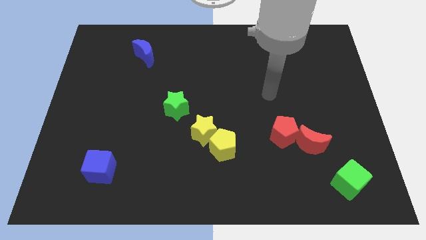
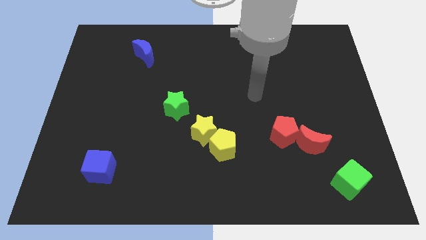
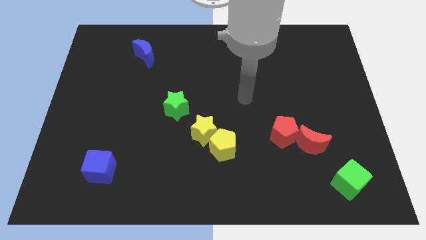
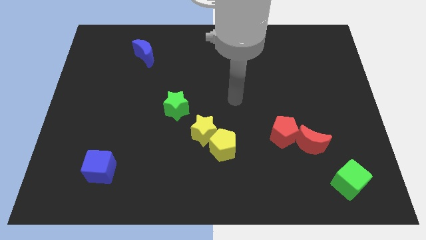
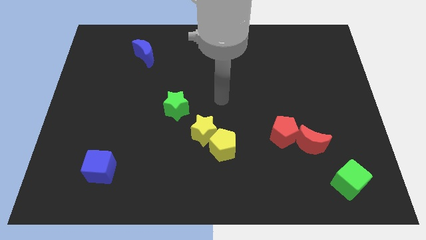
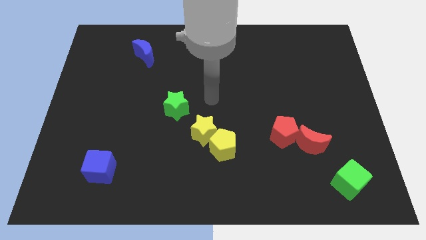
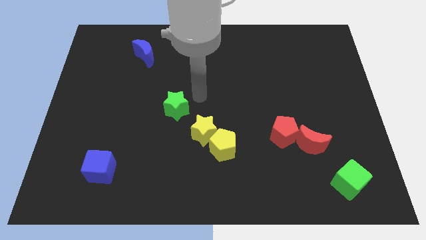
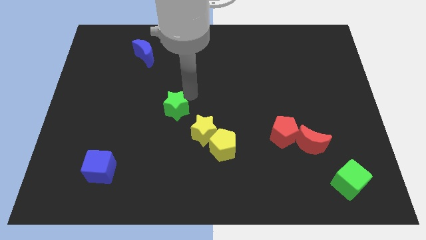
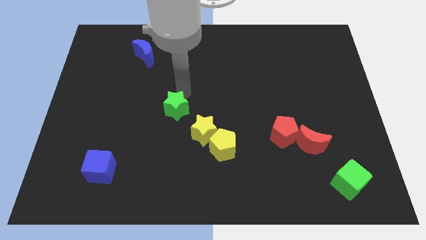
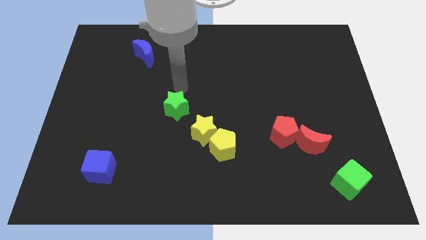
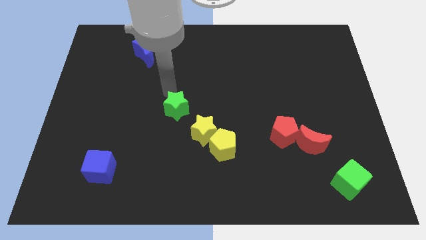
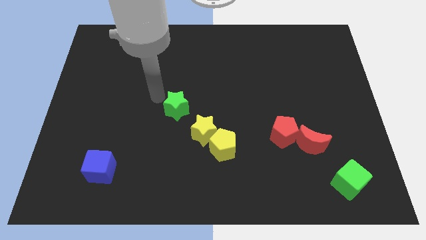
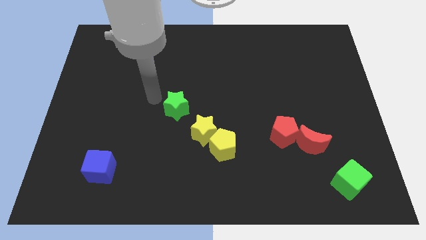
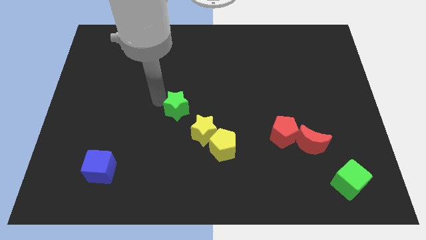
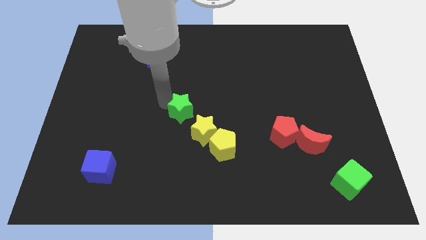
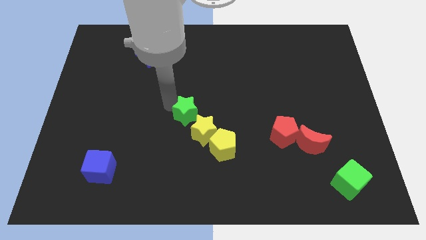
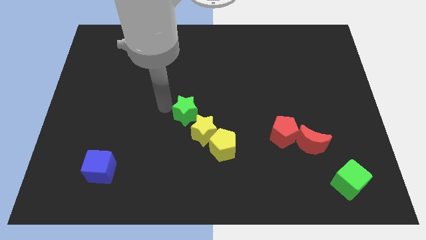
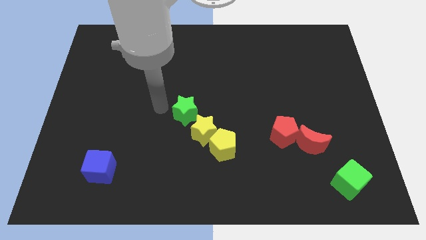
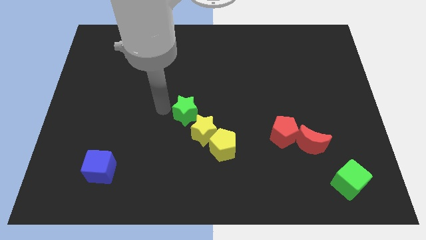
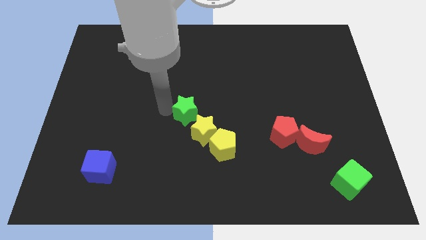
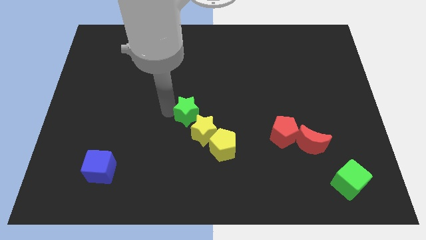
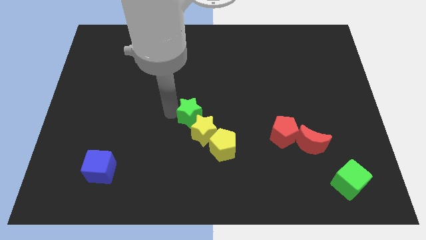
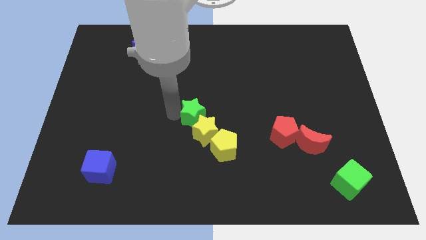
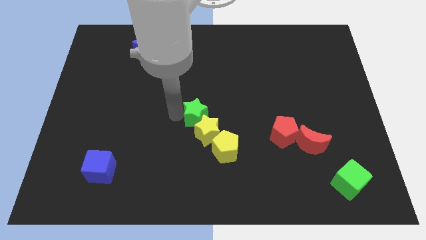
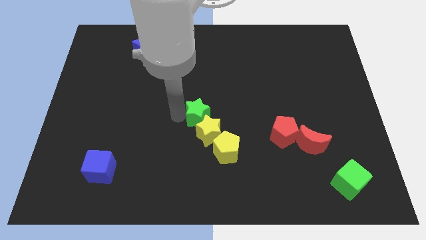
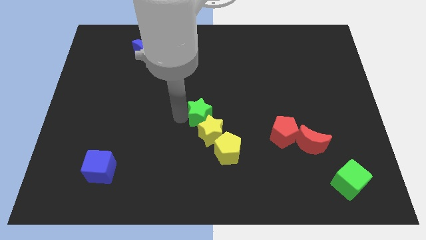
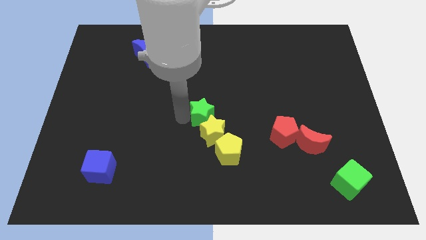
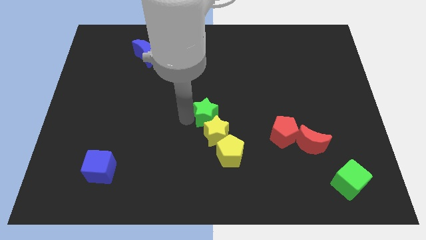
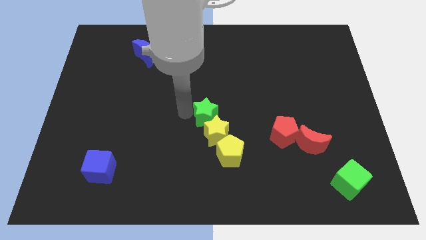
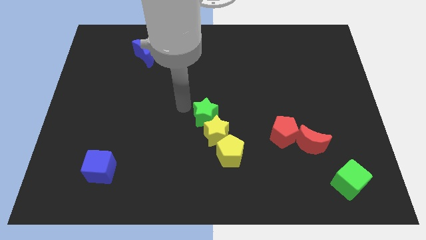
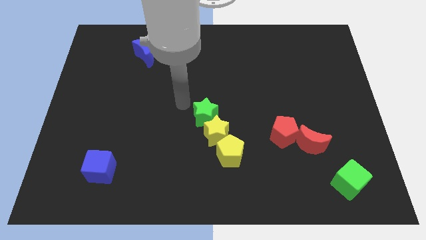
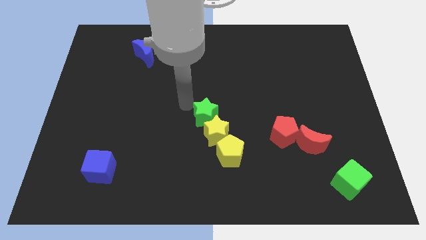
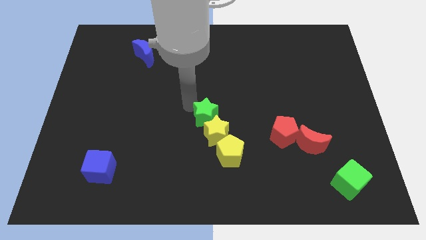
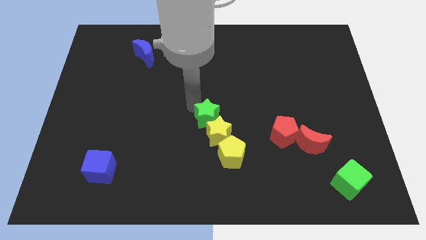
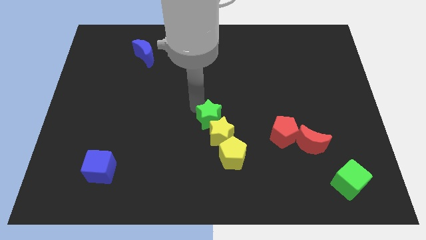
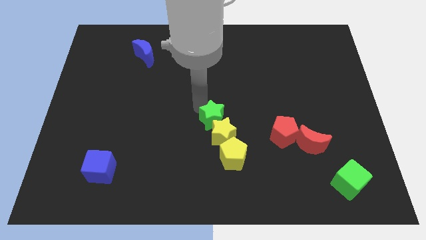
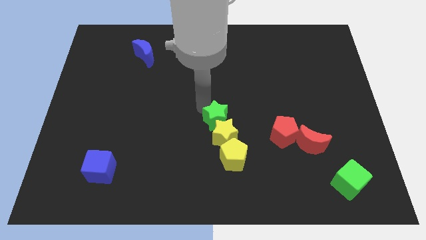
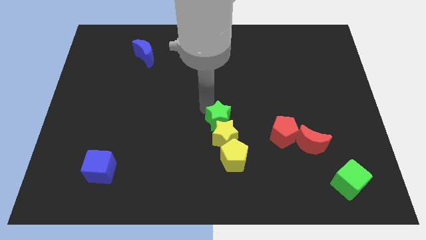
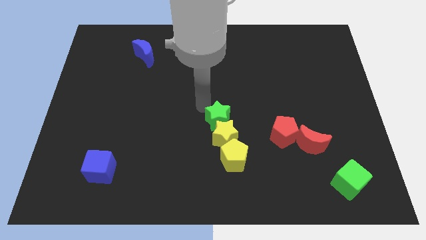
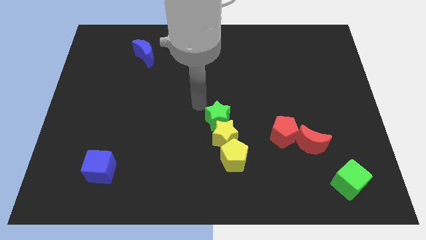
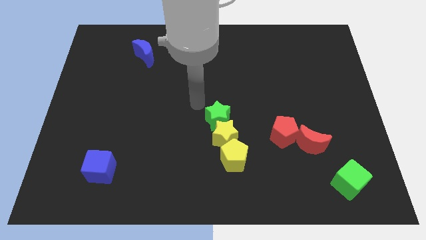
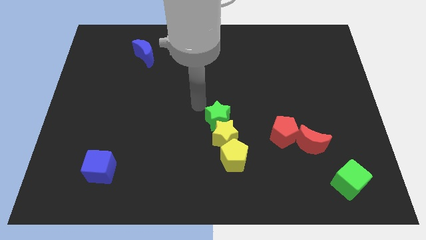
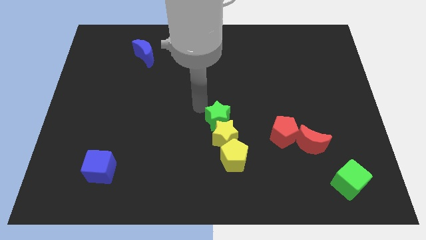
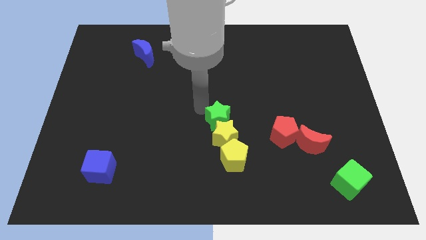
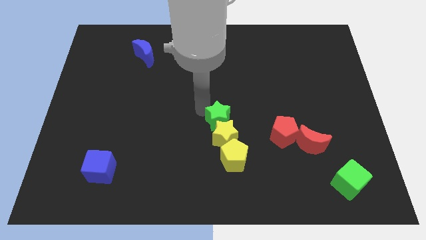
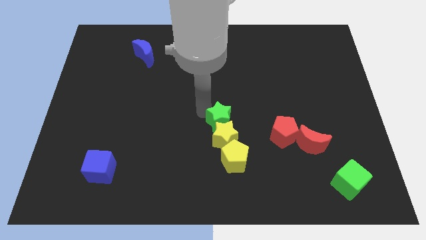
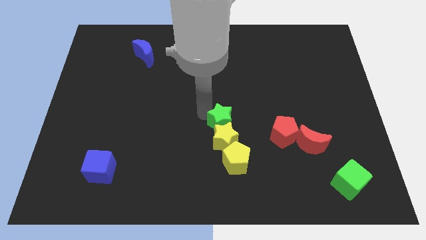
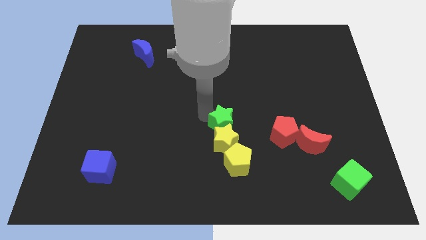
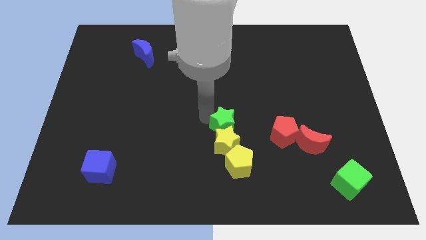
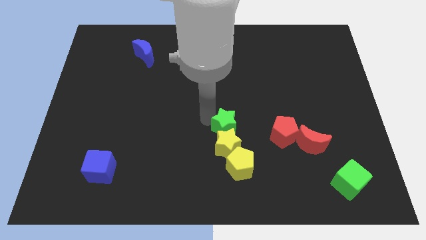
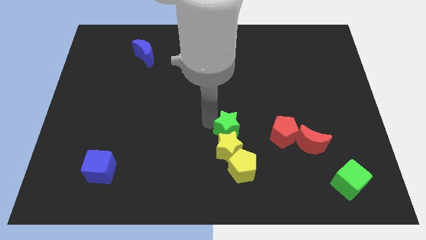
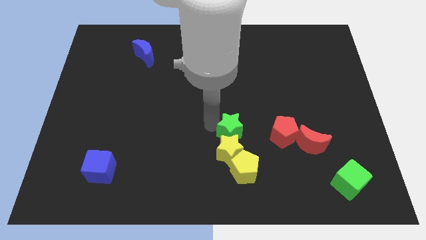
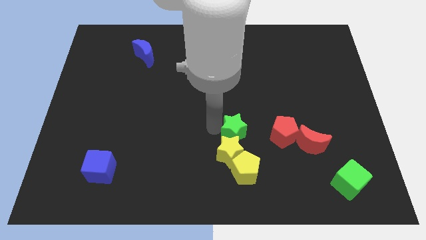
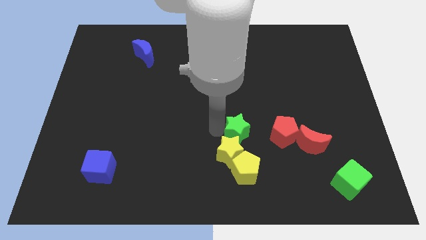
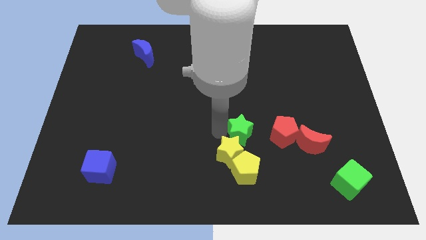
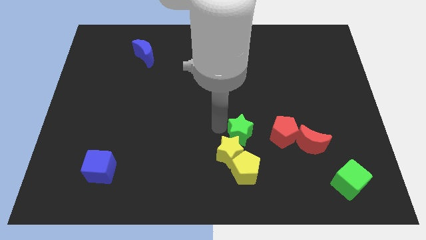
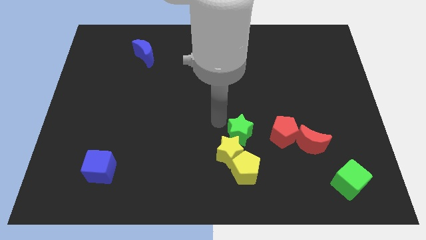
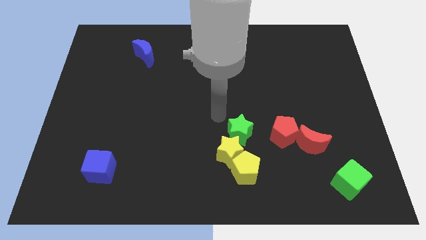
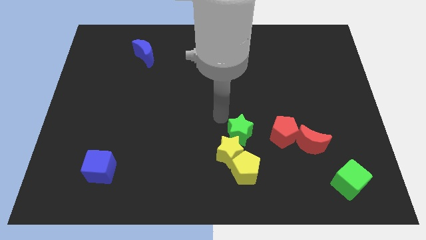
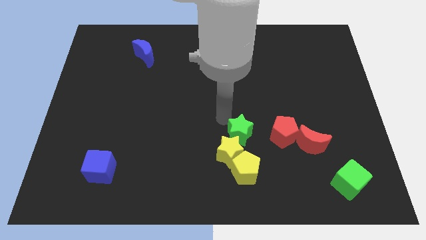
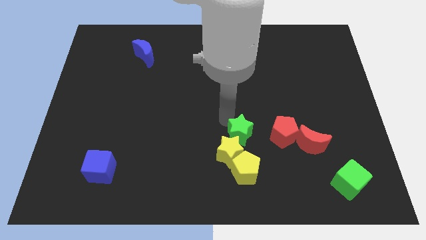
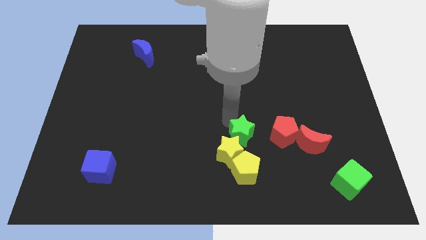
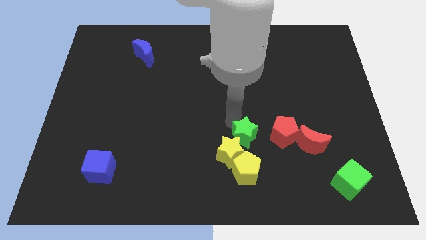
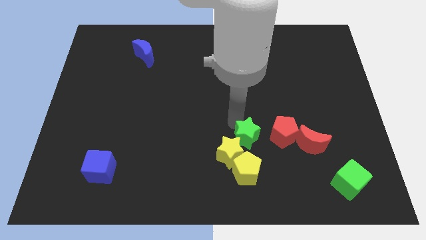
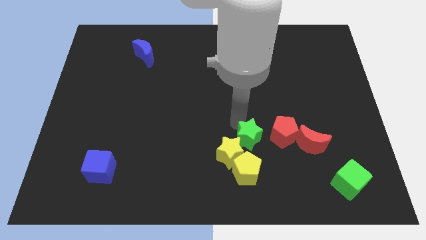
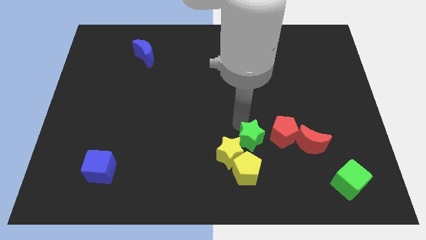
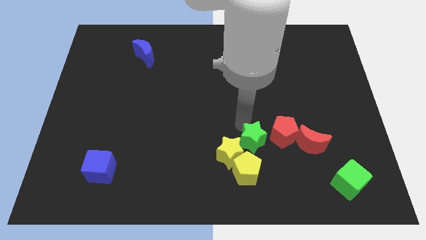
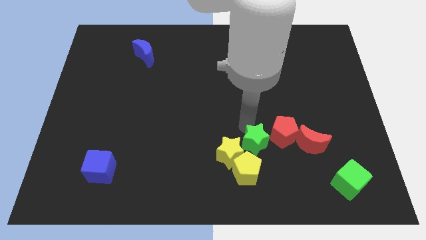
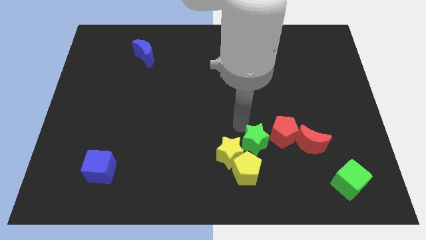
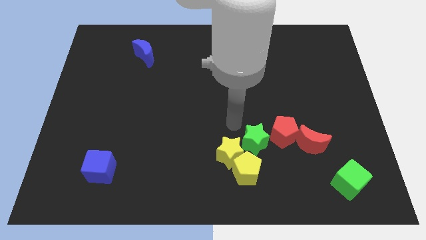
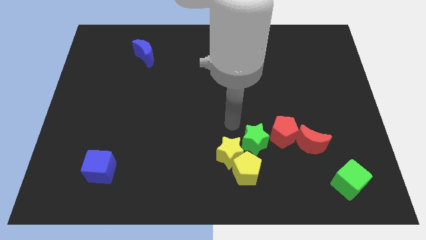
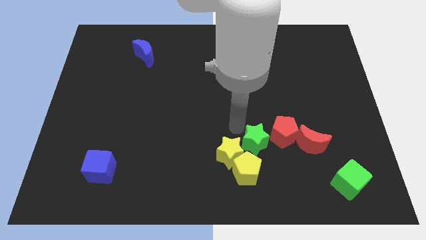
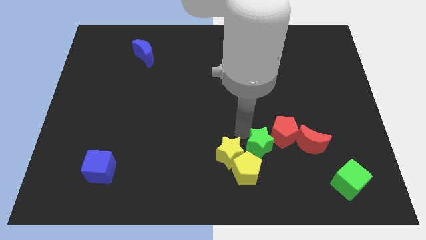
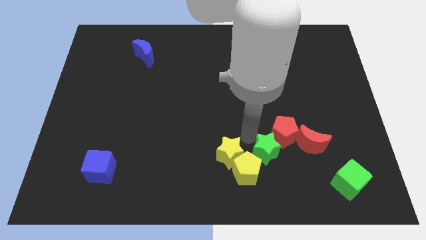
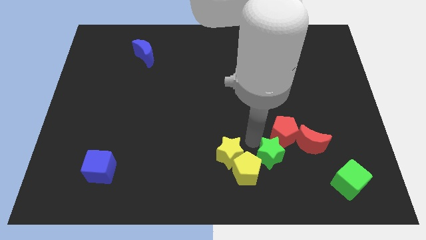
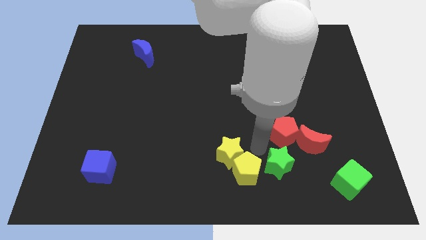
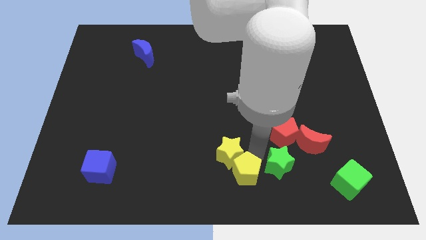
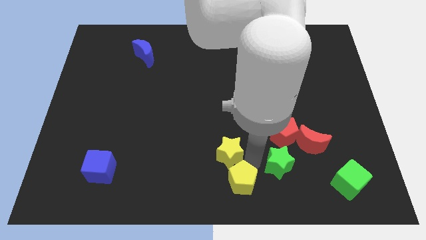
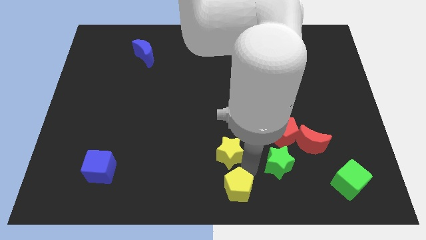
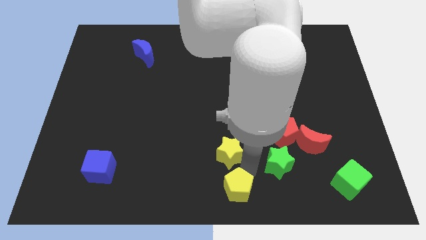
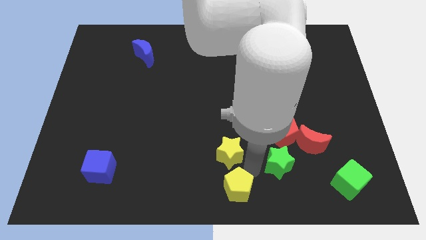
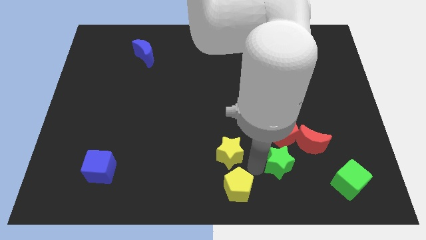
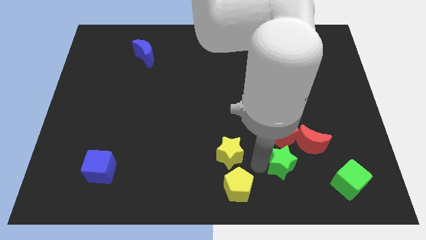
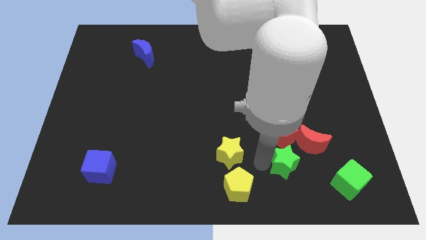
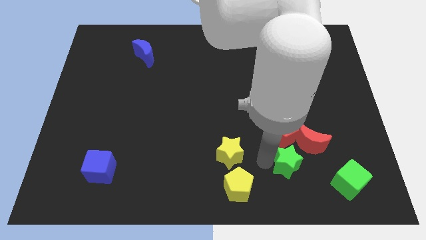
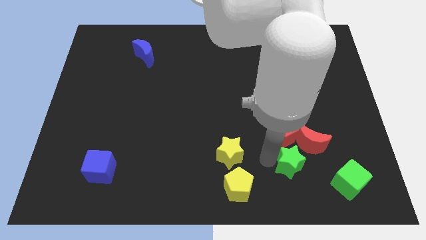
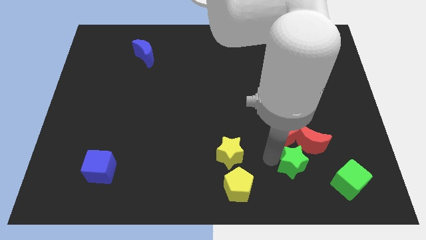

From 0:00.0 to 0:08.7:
put the green star to the bottom right side of the red pentagon
